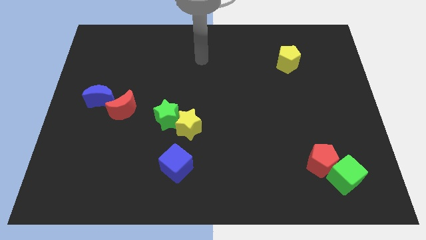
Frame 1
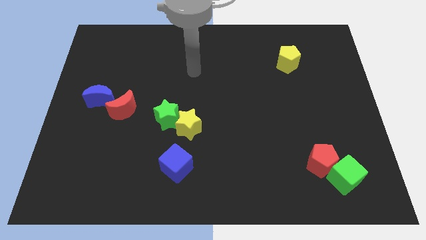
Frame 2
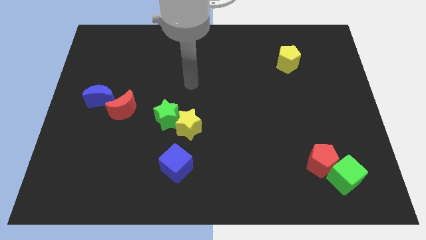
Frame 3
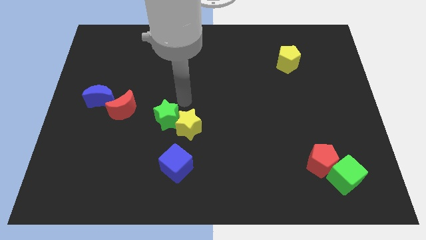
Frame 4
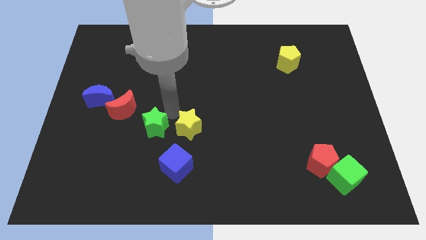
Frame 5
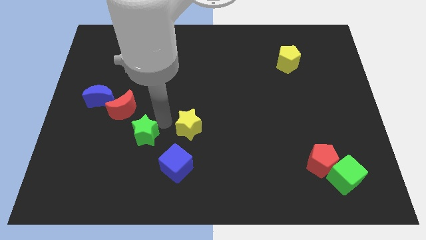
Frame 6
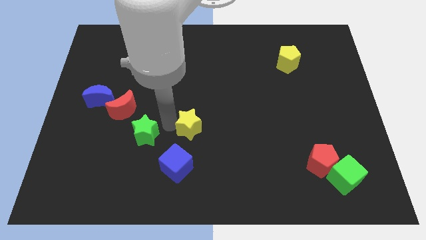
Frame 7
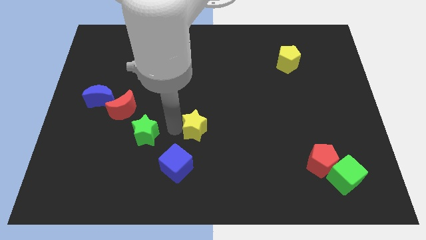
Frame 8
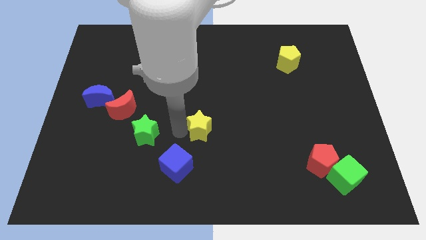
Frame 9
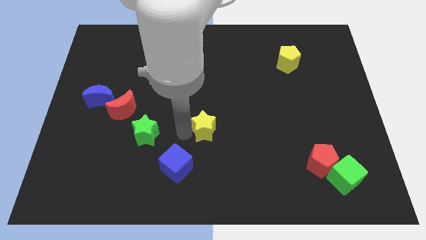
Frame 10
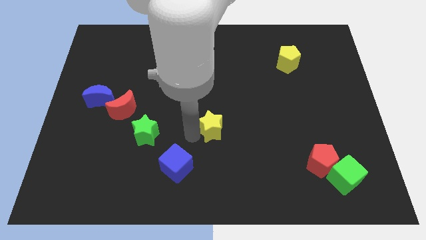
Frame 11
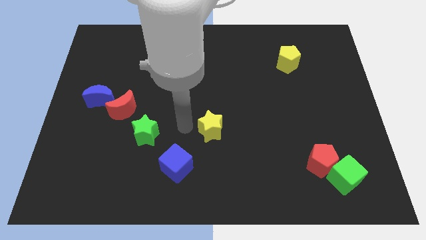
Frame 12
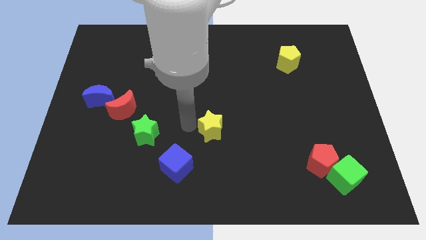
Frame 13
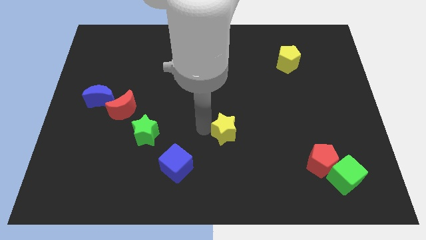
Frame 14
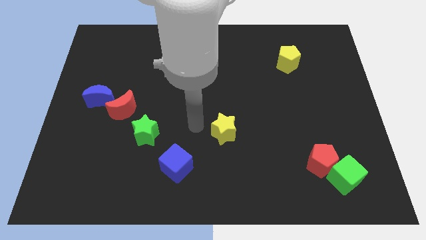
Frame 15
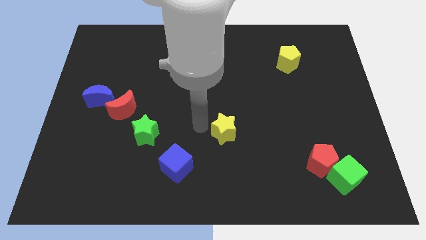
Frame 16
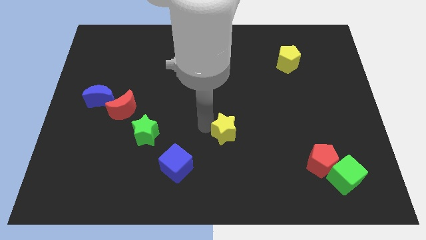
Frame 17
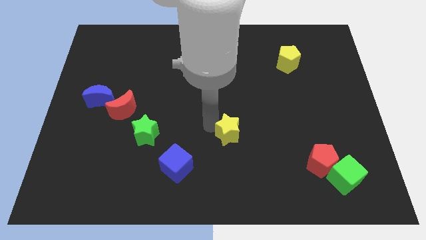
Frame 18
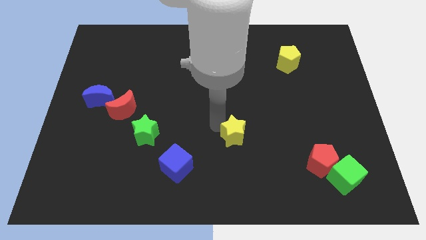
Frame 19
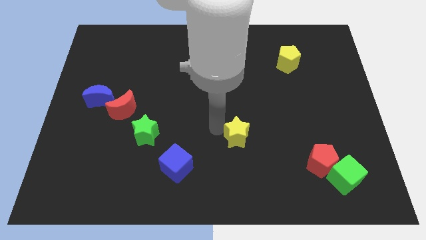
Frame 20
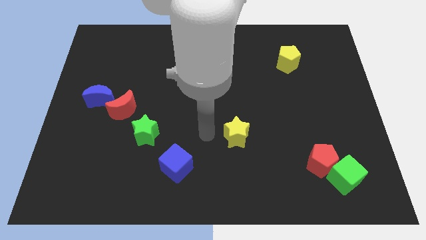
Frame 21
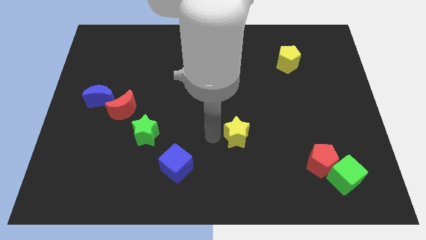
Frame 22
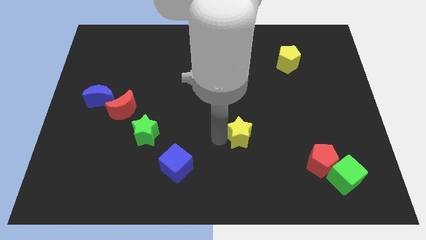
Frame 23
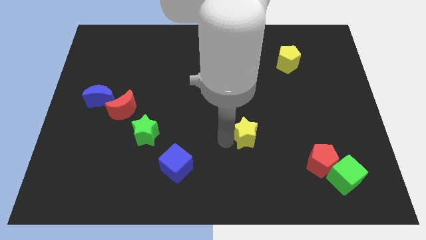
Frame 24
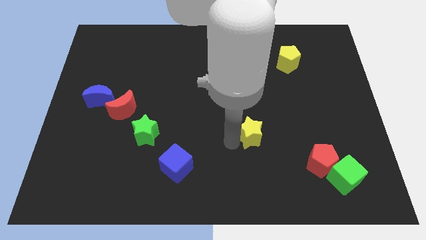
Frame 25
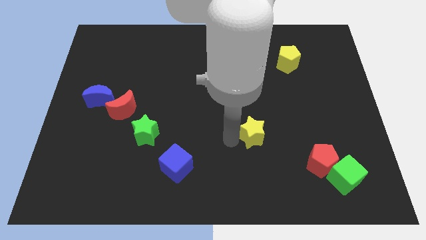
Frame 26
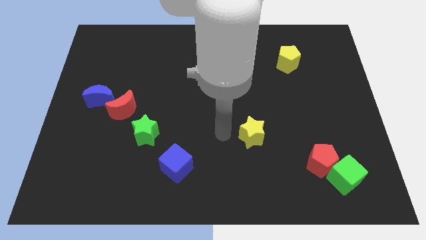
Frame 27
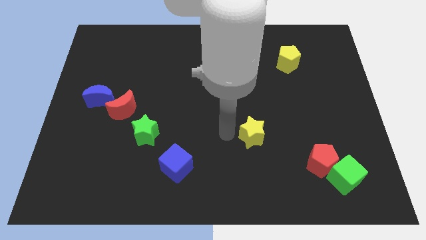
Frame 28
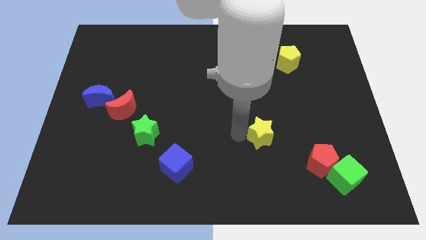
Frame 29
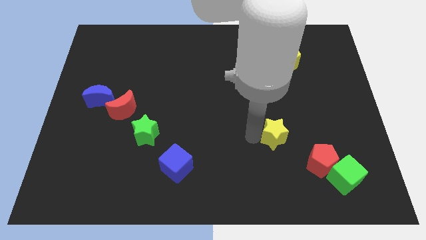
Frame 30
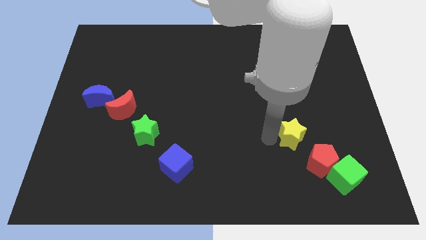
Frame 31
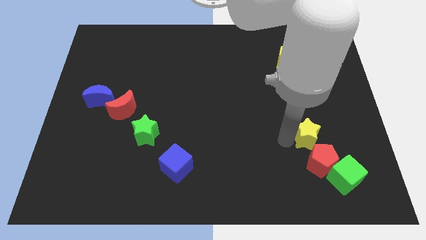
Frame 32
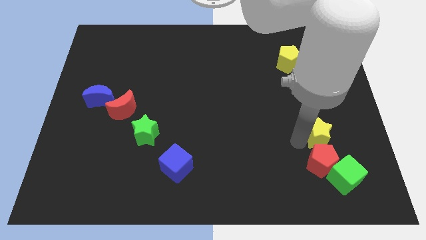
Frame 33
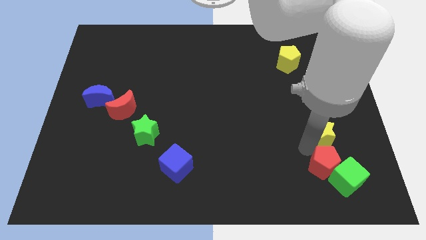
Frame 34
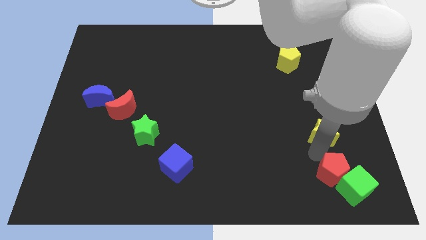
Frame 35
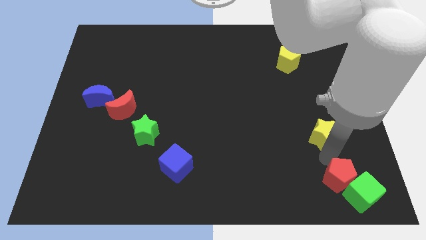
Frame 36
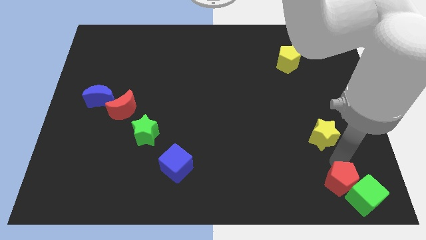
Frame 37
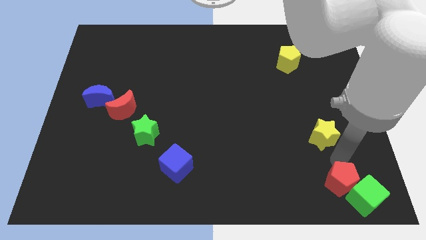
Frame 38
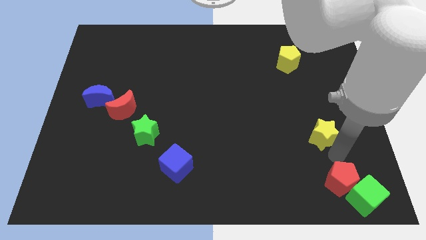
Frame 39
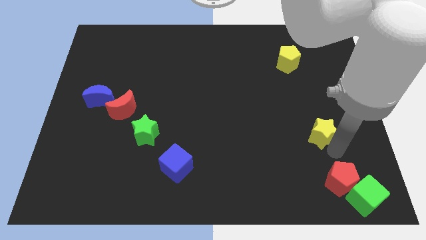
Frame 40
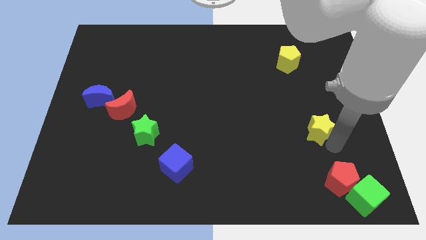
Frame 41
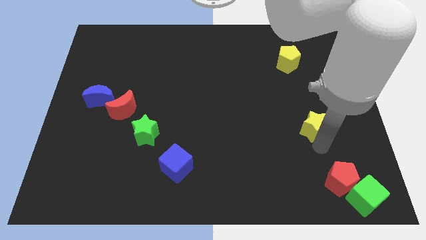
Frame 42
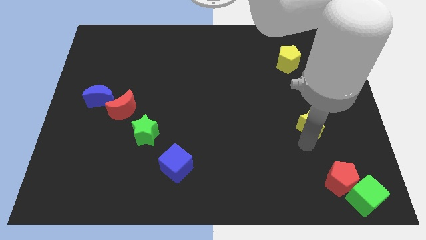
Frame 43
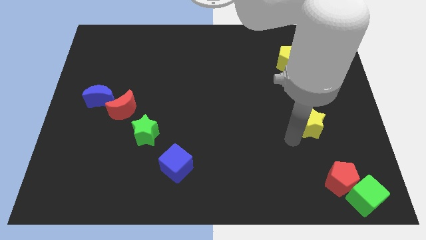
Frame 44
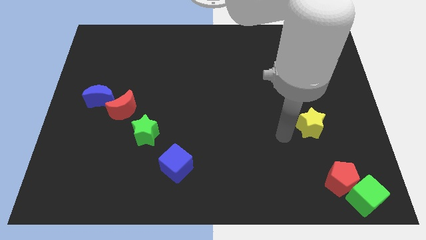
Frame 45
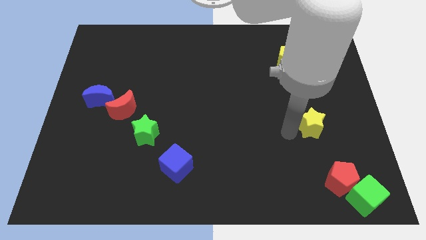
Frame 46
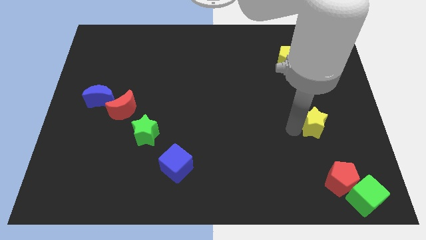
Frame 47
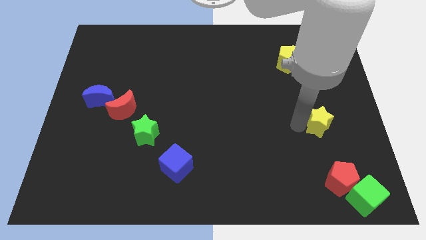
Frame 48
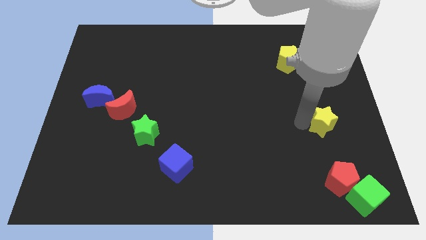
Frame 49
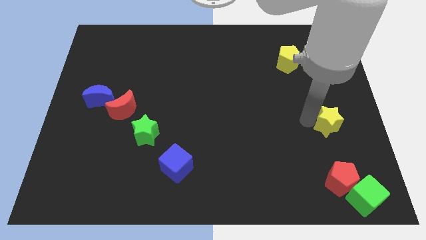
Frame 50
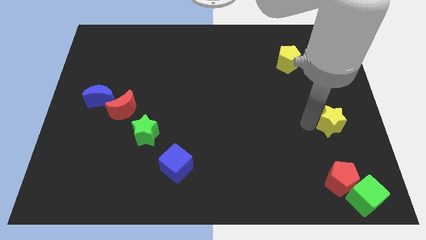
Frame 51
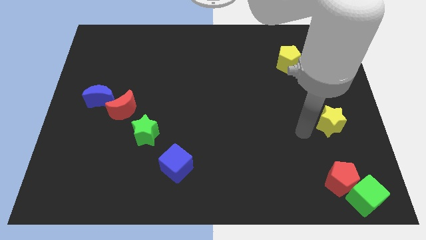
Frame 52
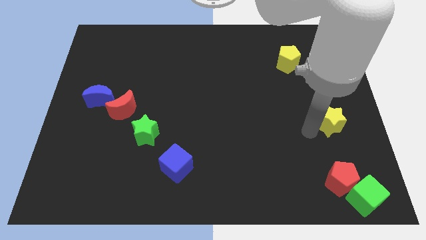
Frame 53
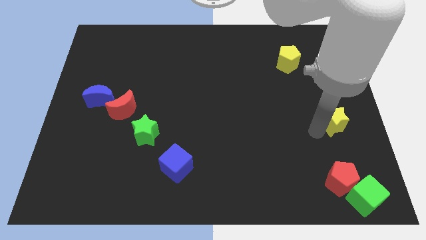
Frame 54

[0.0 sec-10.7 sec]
slide the yellow star to the center right
